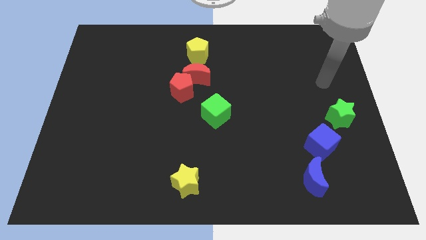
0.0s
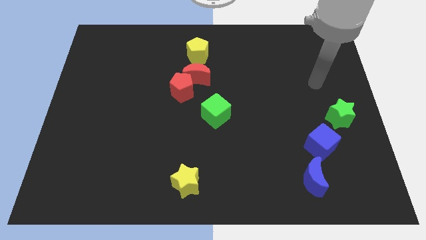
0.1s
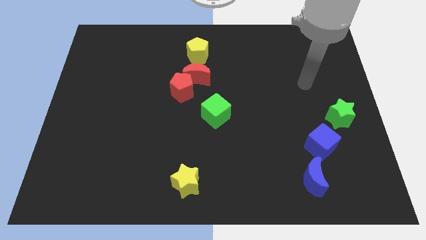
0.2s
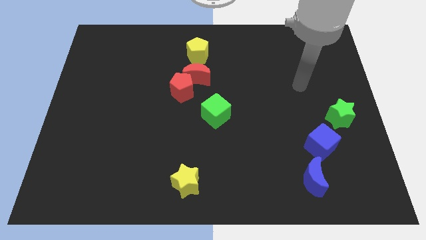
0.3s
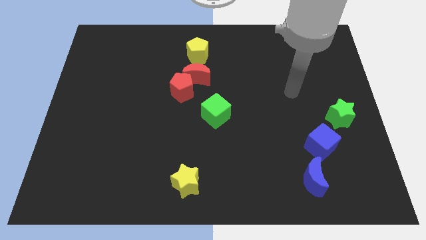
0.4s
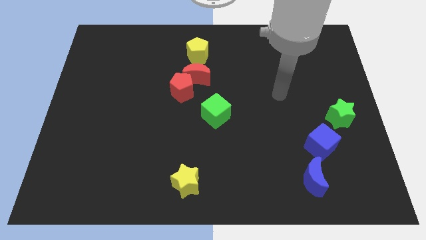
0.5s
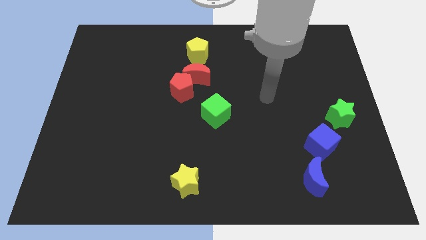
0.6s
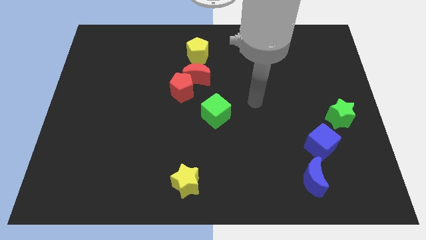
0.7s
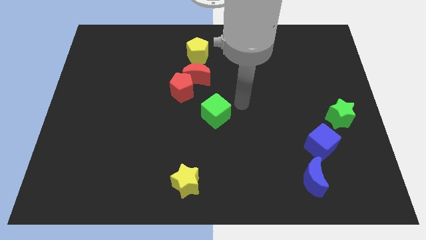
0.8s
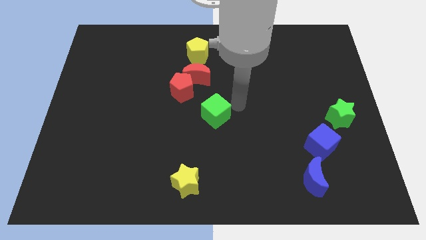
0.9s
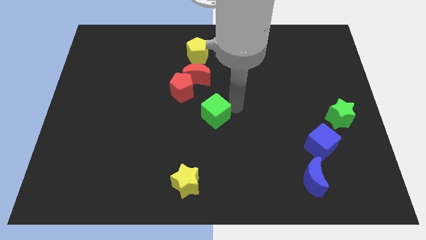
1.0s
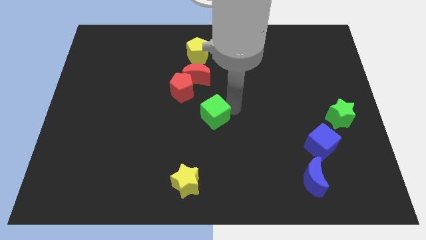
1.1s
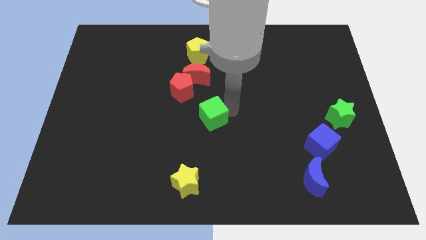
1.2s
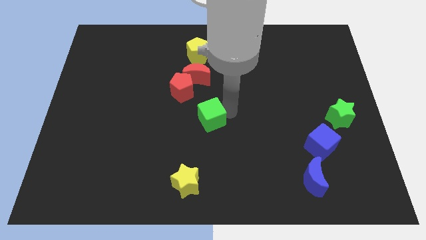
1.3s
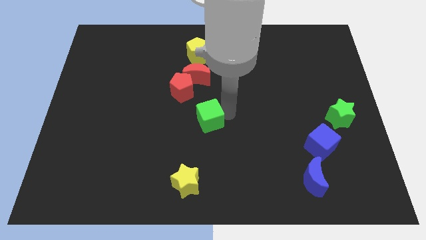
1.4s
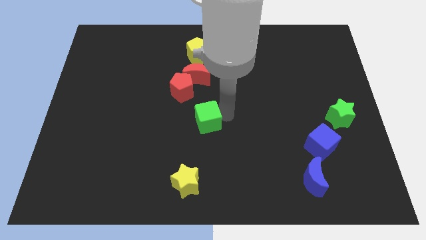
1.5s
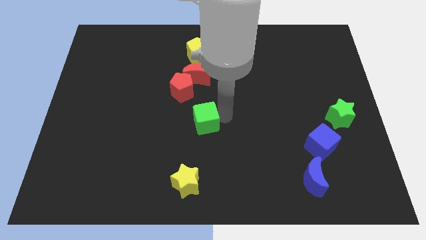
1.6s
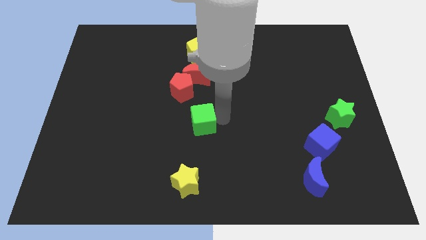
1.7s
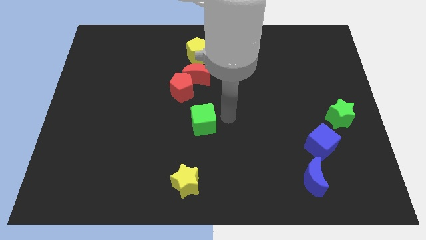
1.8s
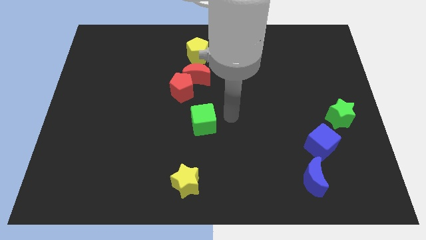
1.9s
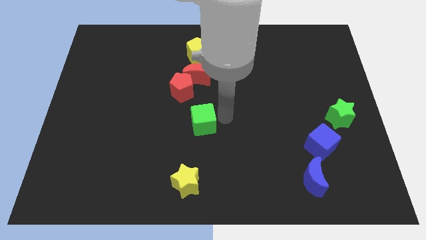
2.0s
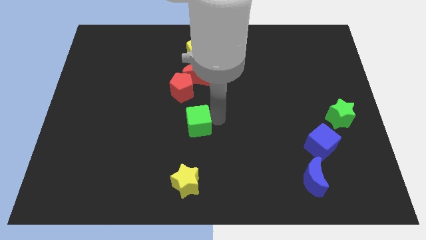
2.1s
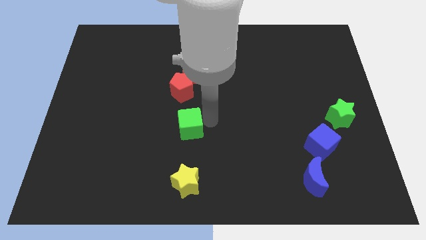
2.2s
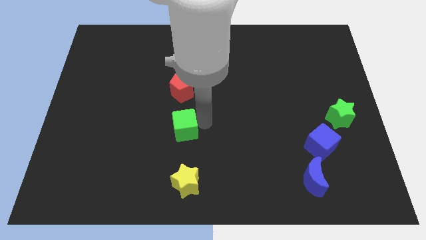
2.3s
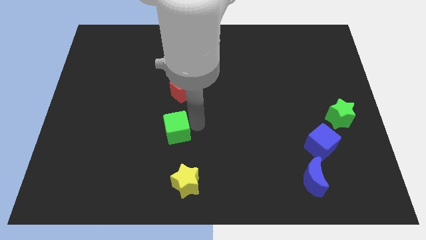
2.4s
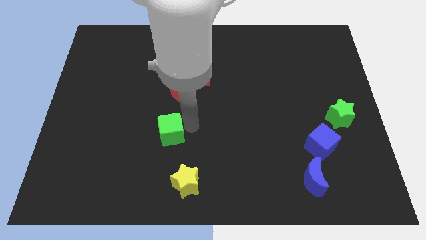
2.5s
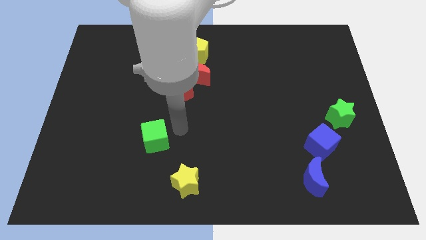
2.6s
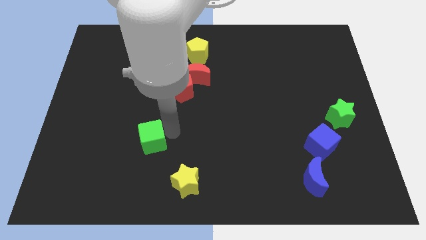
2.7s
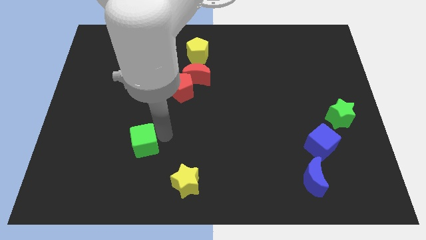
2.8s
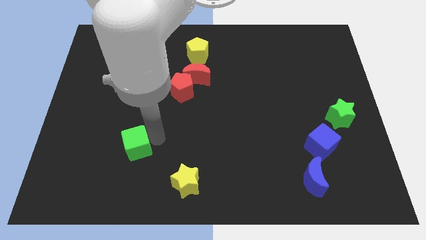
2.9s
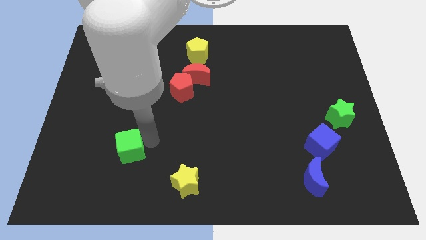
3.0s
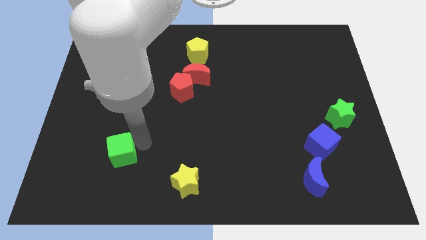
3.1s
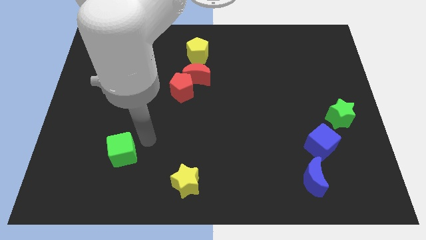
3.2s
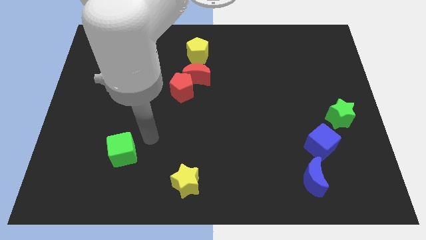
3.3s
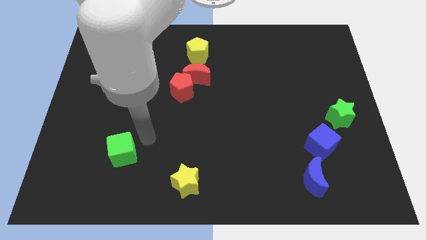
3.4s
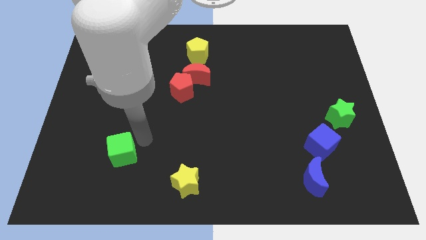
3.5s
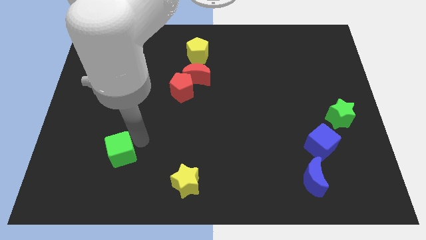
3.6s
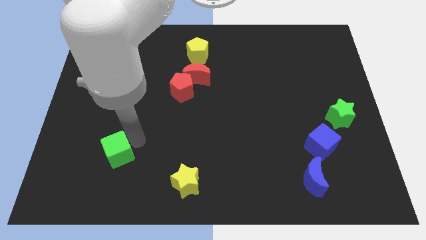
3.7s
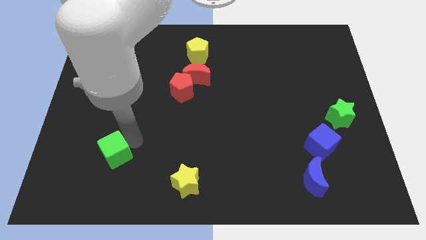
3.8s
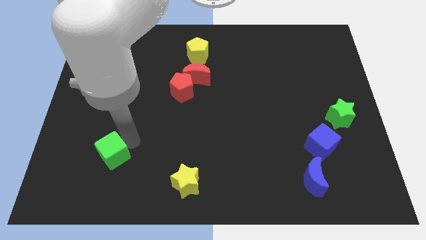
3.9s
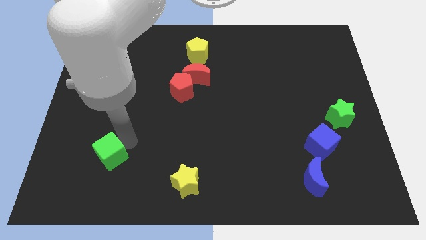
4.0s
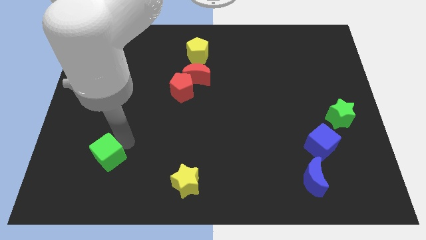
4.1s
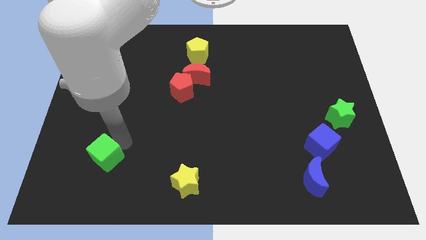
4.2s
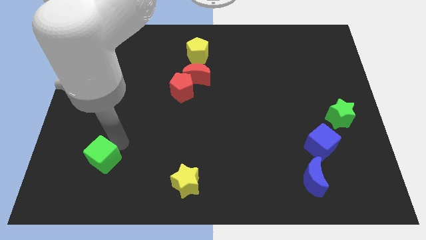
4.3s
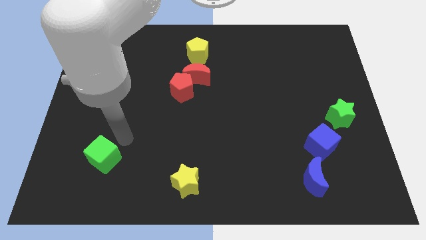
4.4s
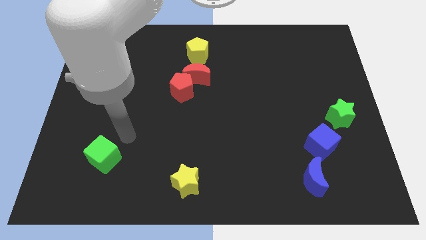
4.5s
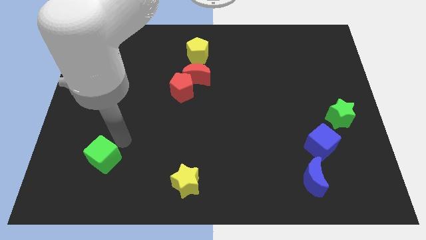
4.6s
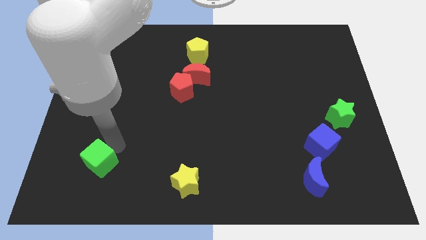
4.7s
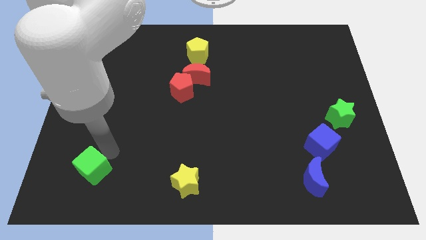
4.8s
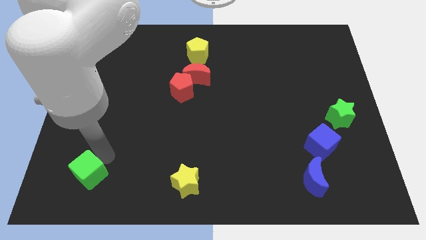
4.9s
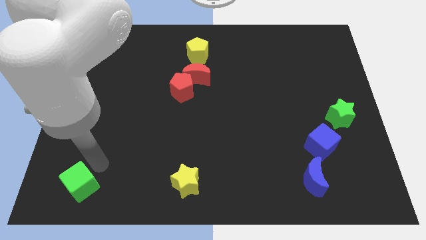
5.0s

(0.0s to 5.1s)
put the green cube to the bottom left

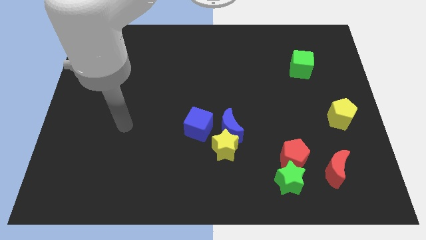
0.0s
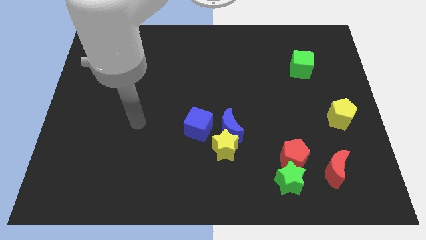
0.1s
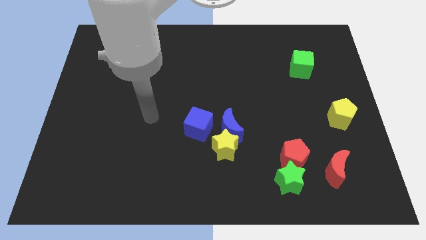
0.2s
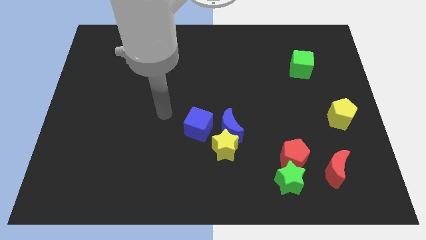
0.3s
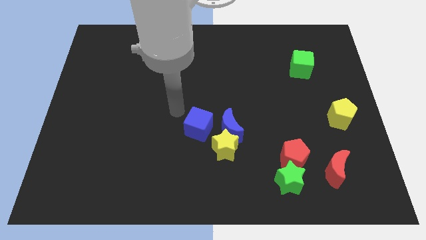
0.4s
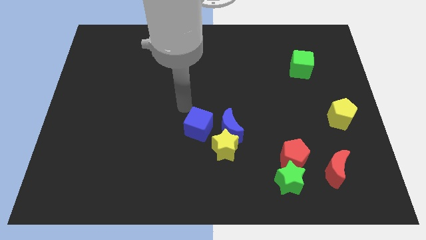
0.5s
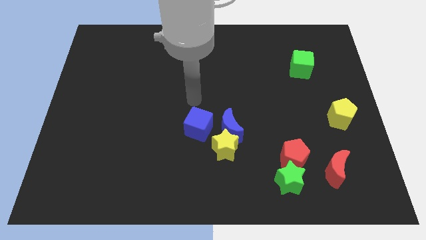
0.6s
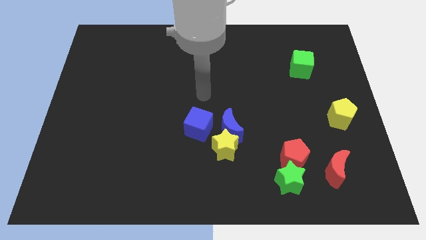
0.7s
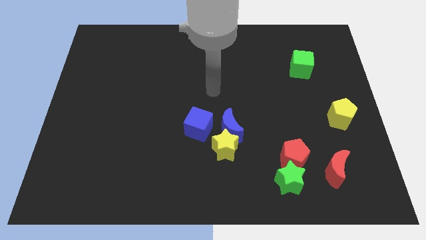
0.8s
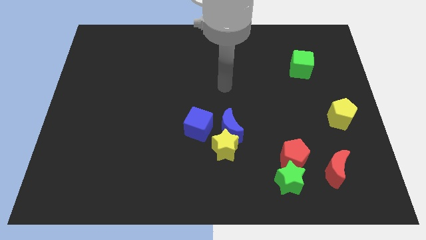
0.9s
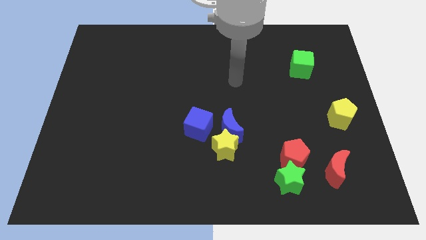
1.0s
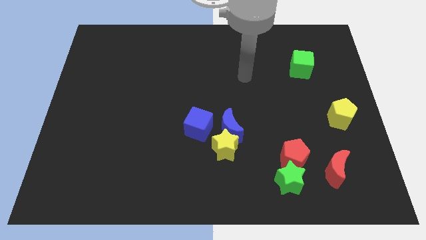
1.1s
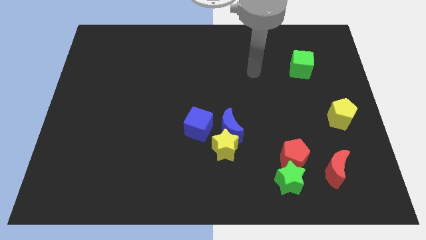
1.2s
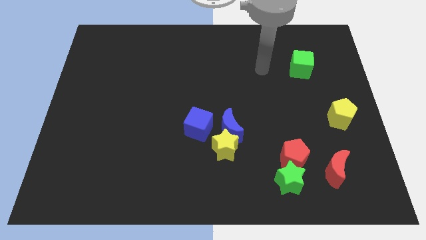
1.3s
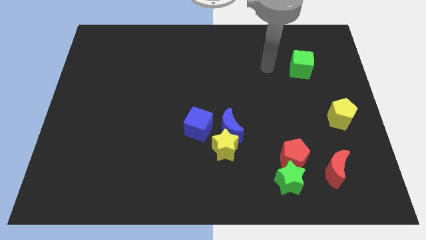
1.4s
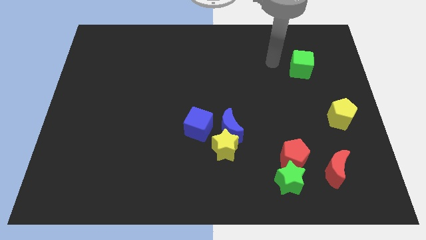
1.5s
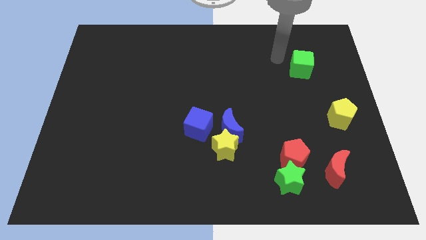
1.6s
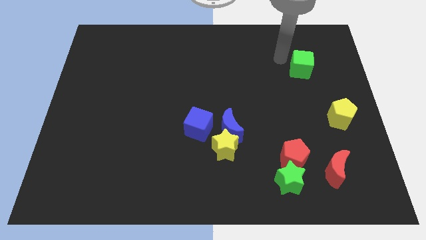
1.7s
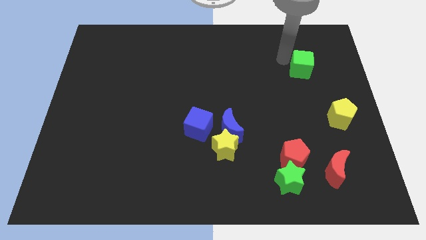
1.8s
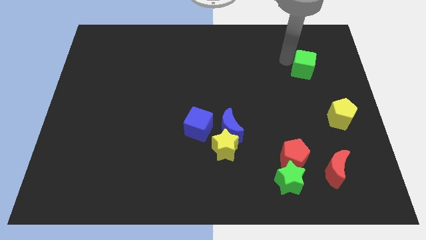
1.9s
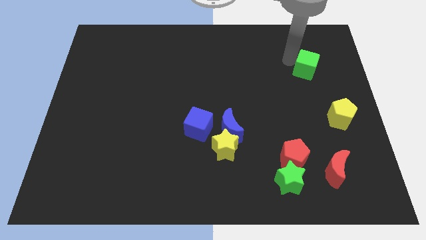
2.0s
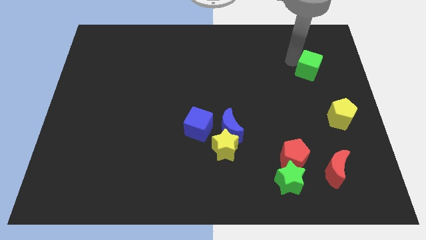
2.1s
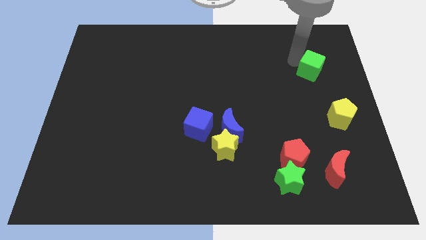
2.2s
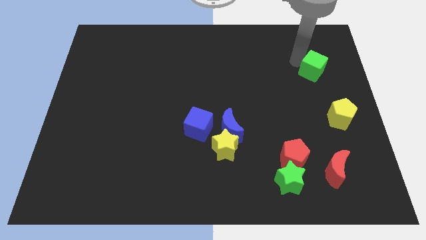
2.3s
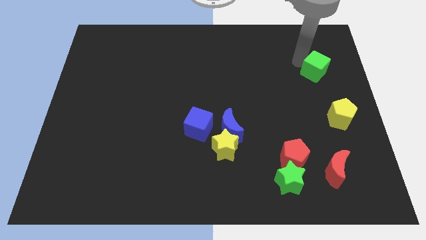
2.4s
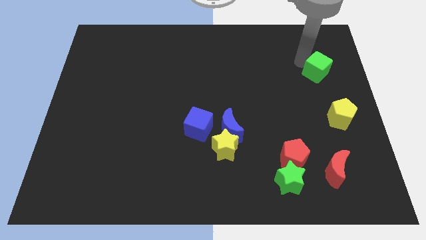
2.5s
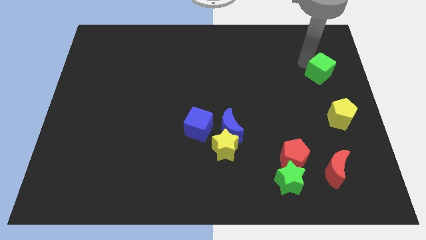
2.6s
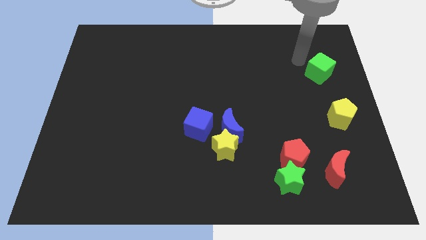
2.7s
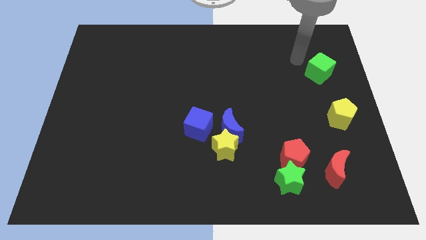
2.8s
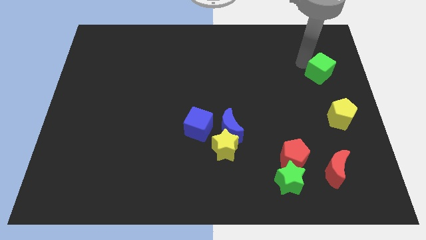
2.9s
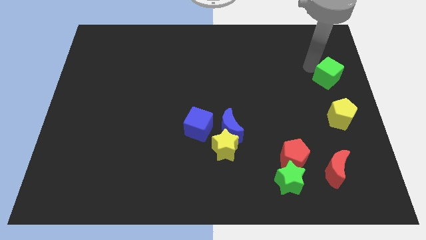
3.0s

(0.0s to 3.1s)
slide the green cube to the center right

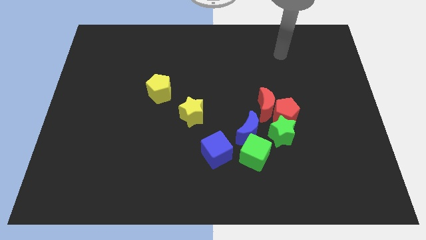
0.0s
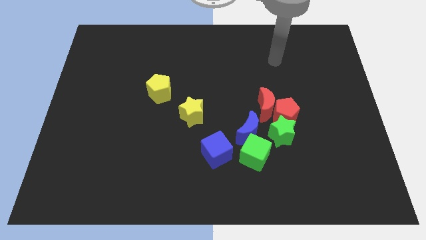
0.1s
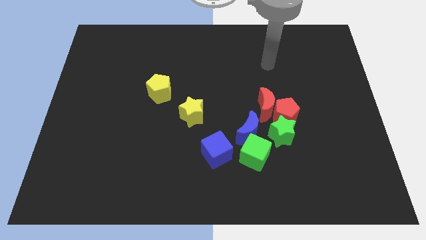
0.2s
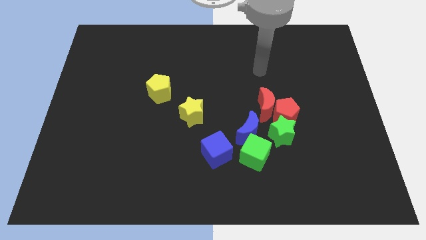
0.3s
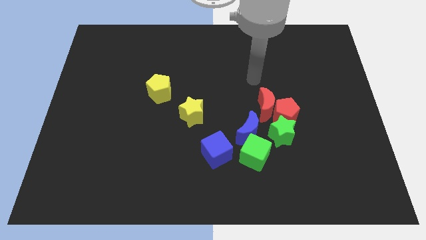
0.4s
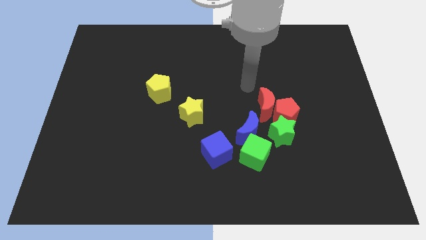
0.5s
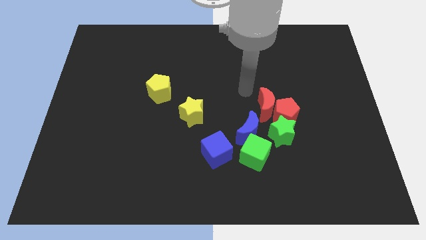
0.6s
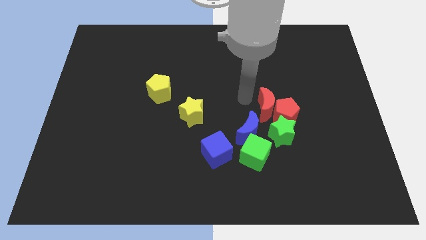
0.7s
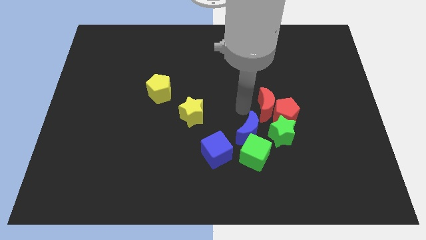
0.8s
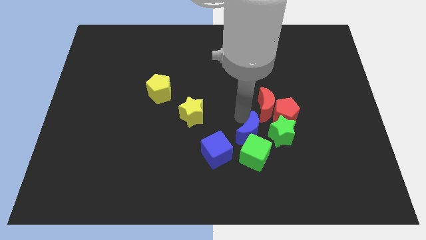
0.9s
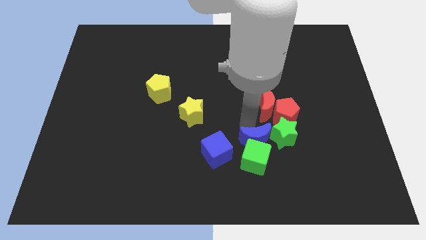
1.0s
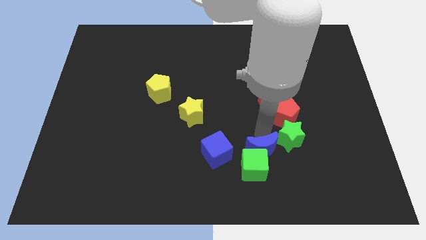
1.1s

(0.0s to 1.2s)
slide the green cube to the bottom
